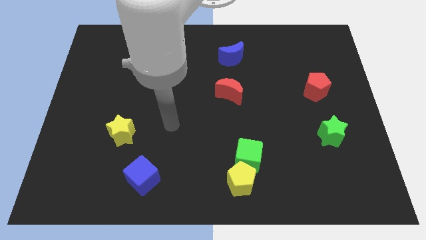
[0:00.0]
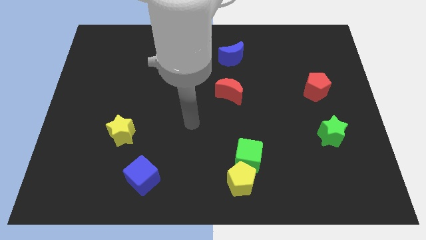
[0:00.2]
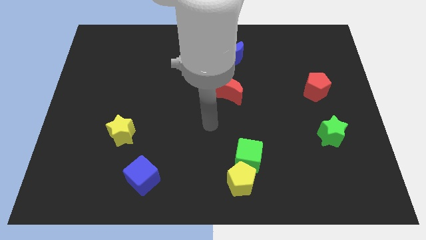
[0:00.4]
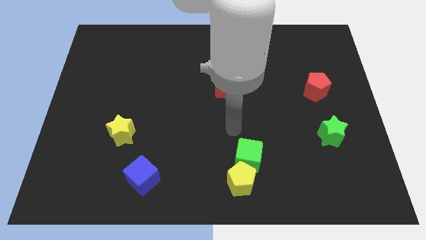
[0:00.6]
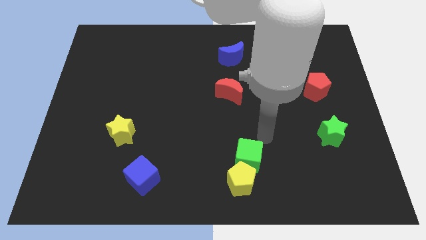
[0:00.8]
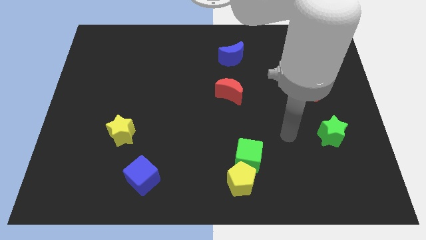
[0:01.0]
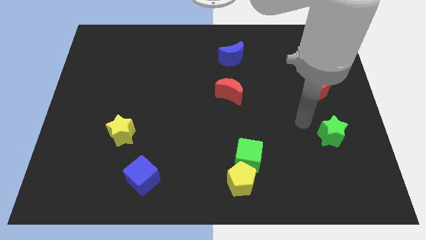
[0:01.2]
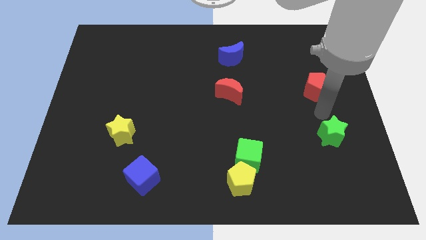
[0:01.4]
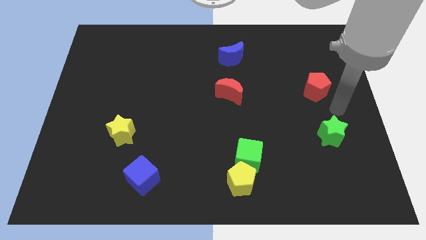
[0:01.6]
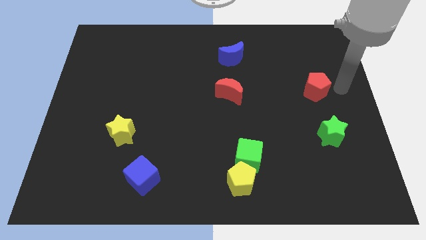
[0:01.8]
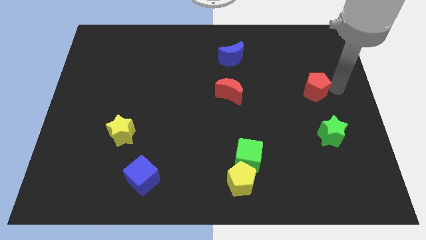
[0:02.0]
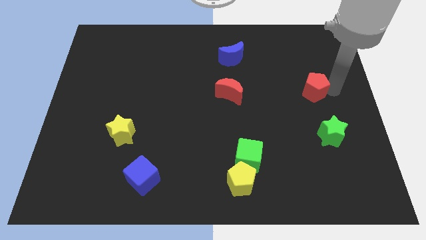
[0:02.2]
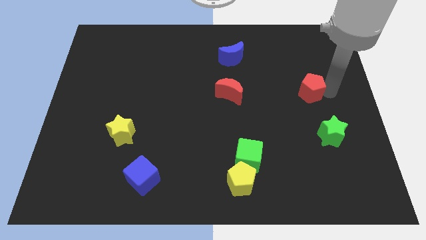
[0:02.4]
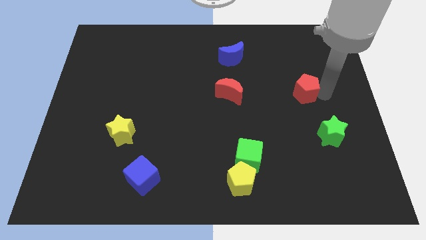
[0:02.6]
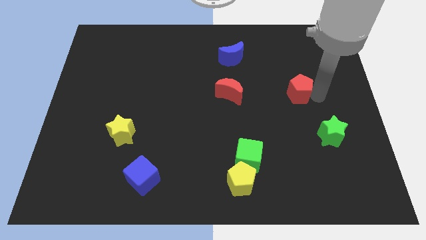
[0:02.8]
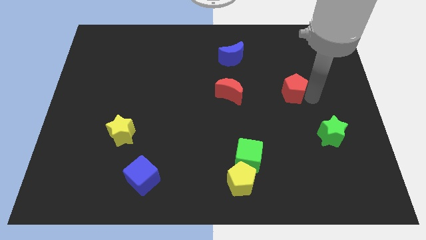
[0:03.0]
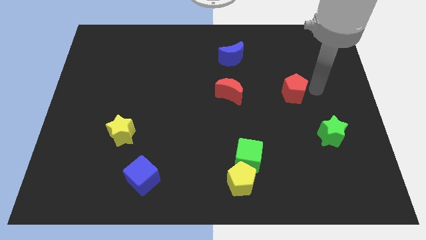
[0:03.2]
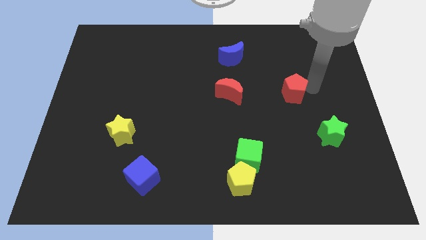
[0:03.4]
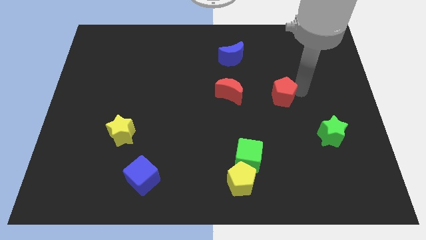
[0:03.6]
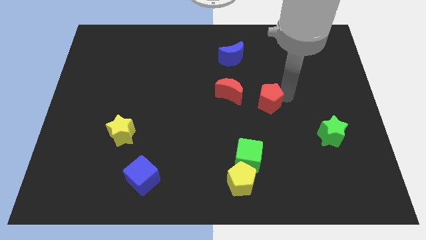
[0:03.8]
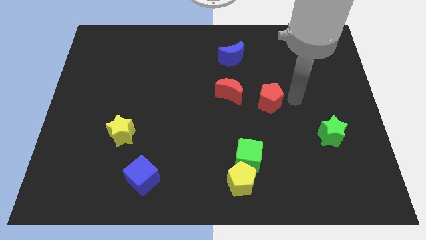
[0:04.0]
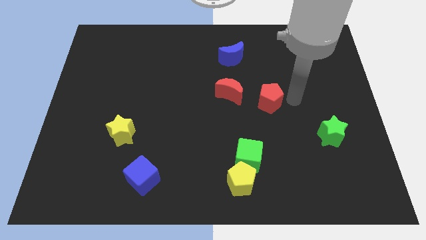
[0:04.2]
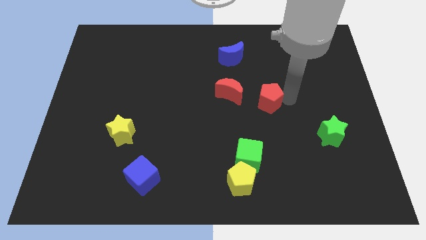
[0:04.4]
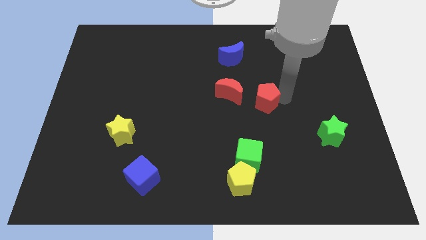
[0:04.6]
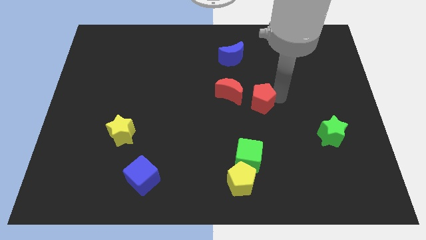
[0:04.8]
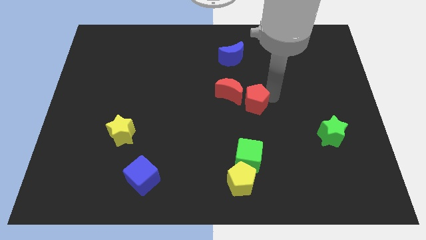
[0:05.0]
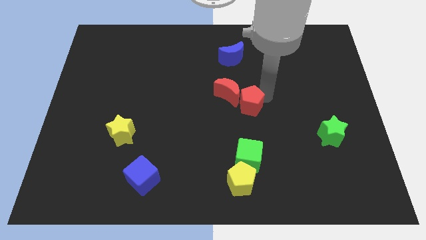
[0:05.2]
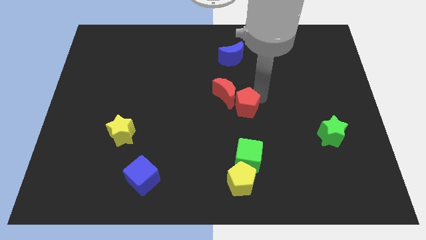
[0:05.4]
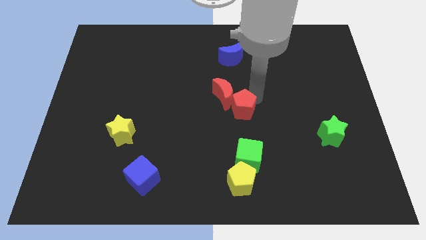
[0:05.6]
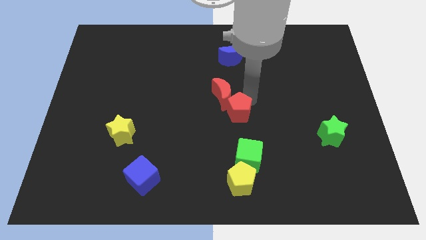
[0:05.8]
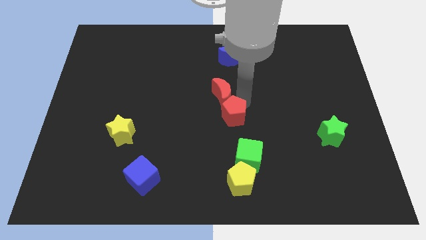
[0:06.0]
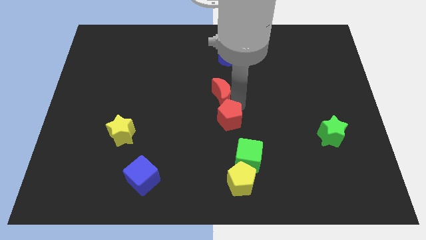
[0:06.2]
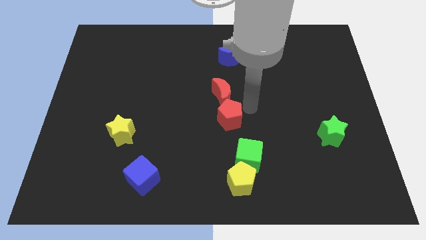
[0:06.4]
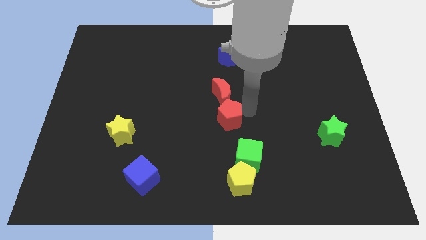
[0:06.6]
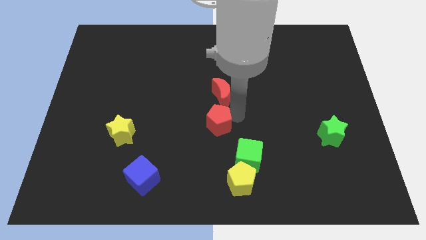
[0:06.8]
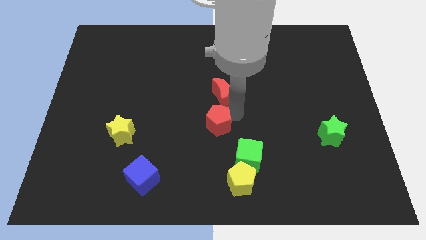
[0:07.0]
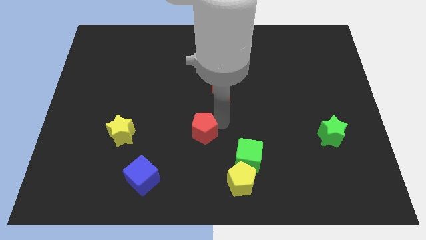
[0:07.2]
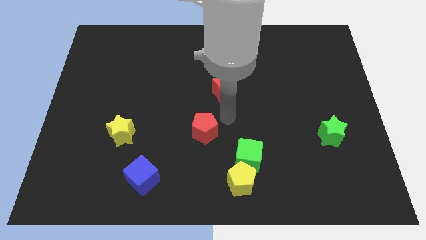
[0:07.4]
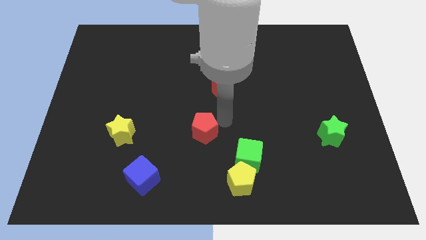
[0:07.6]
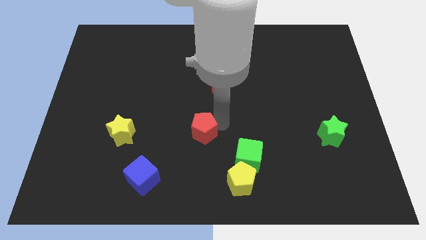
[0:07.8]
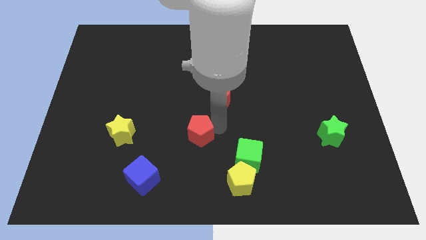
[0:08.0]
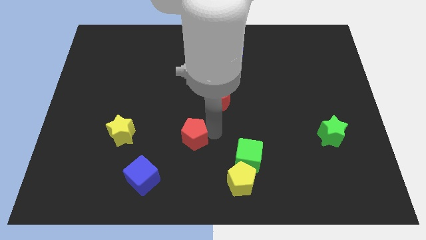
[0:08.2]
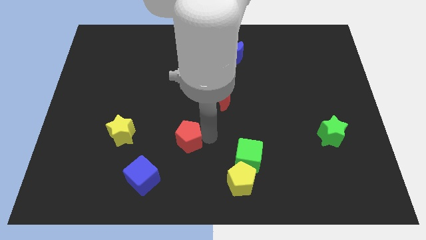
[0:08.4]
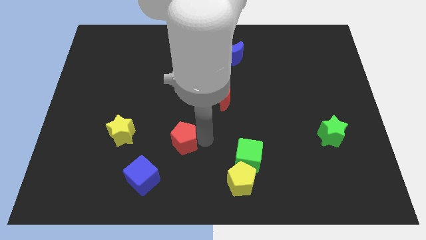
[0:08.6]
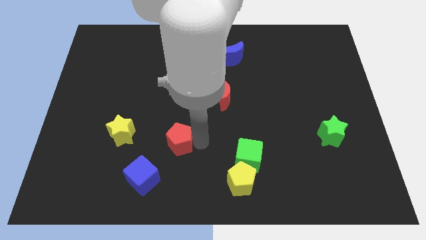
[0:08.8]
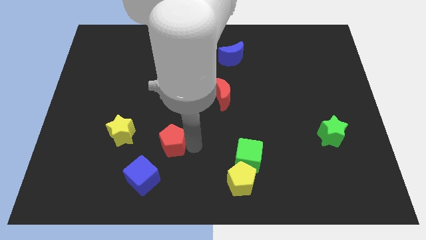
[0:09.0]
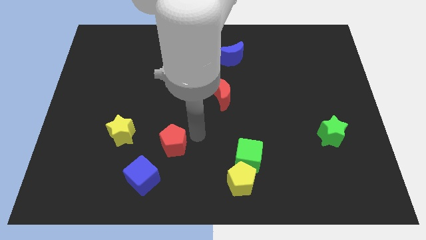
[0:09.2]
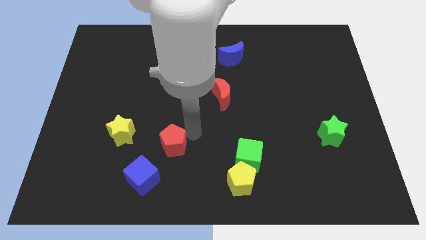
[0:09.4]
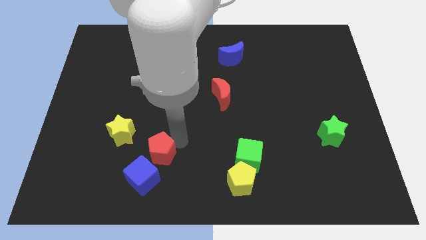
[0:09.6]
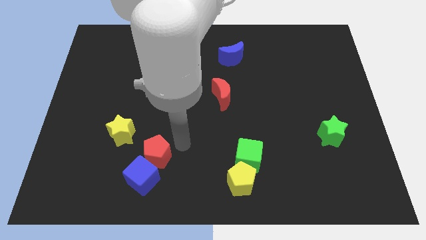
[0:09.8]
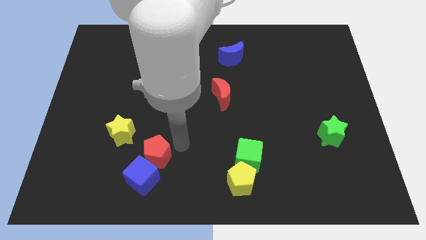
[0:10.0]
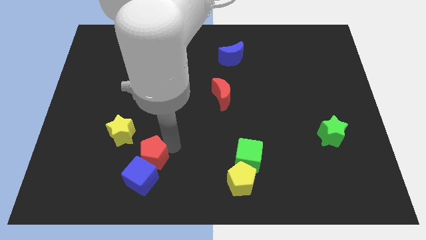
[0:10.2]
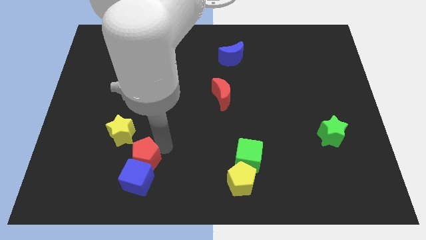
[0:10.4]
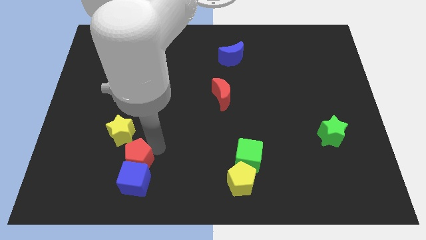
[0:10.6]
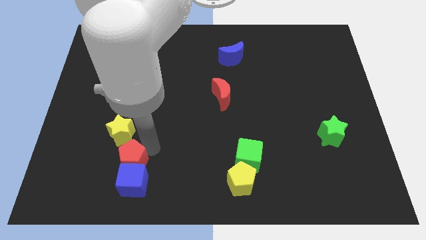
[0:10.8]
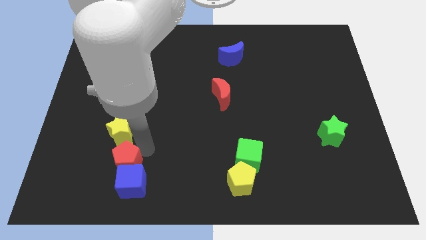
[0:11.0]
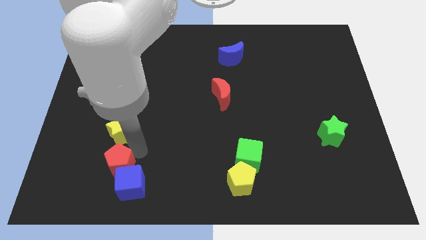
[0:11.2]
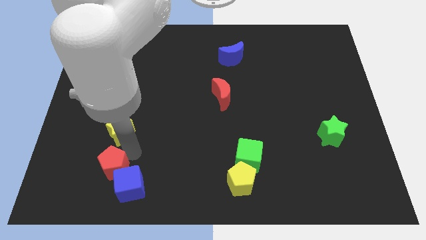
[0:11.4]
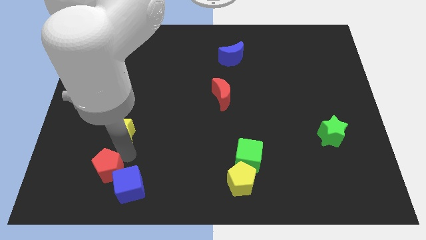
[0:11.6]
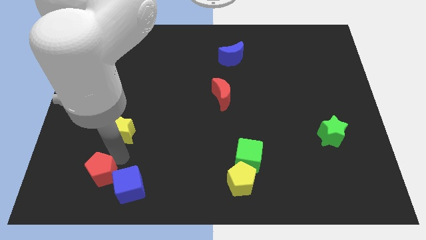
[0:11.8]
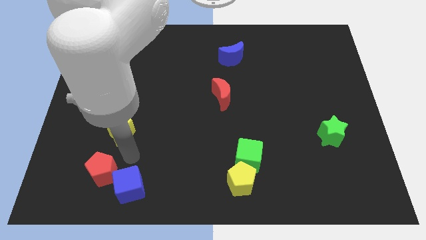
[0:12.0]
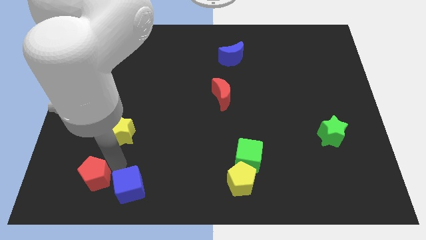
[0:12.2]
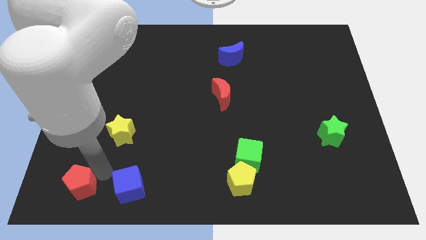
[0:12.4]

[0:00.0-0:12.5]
move the red pentagon to the bottom left of the board

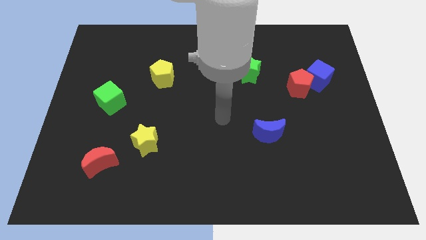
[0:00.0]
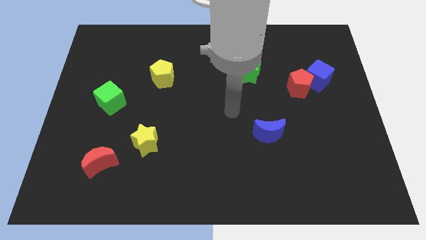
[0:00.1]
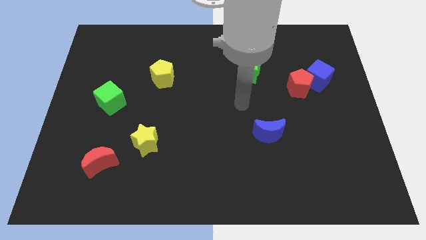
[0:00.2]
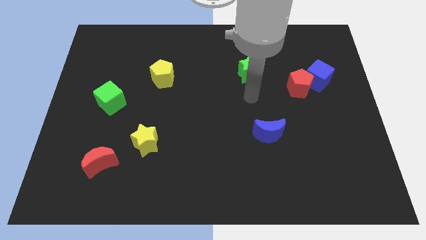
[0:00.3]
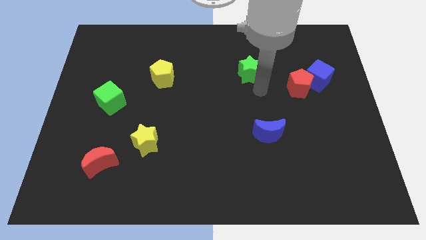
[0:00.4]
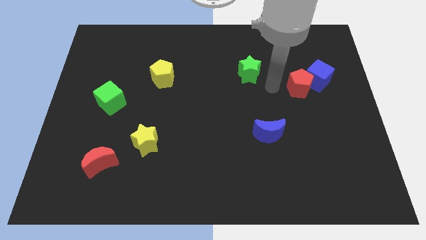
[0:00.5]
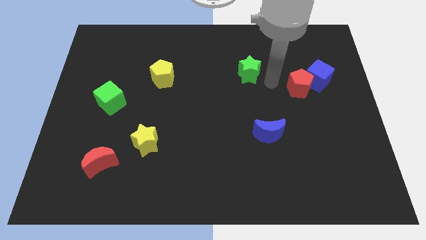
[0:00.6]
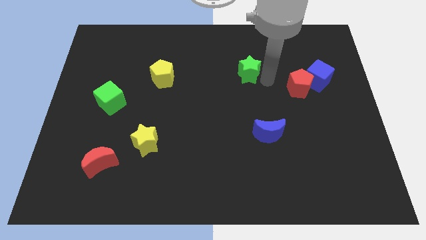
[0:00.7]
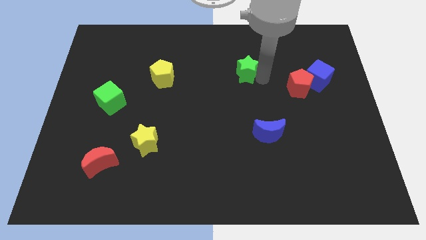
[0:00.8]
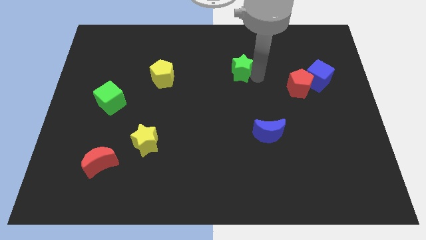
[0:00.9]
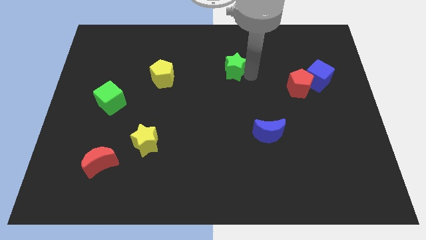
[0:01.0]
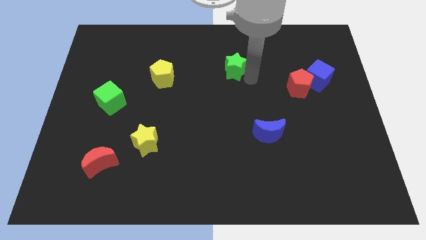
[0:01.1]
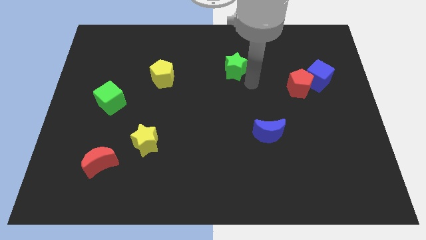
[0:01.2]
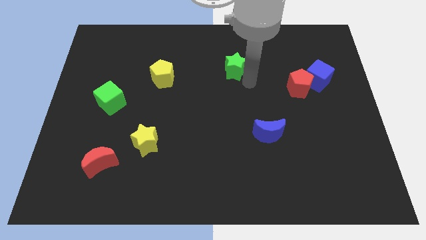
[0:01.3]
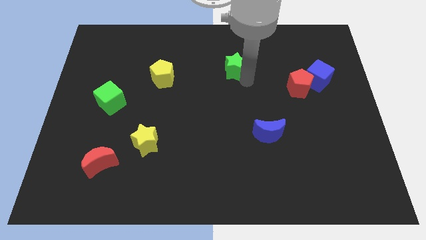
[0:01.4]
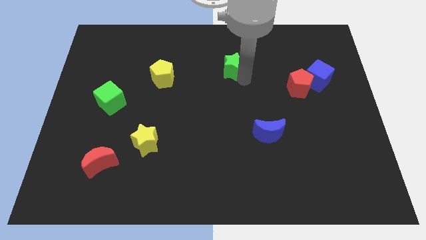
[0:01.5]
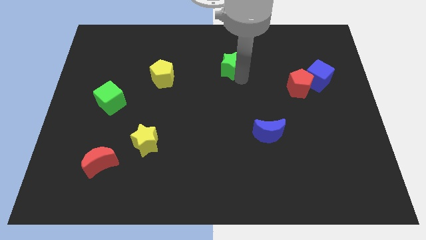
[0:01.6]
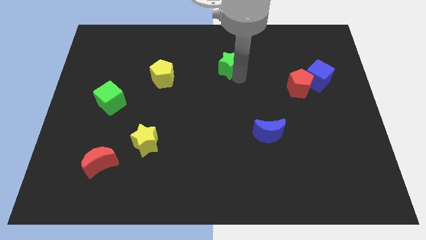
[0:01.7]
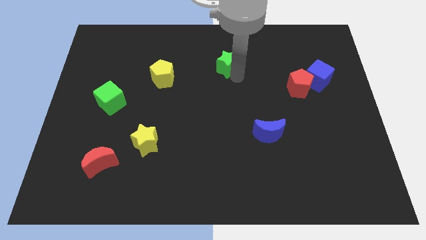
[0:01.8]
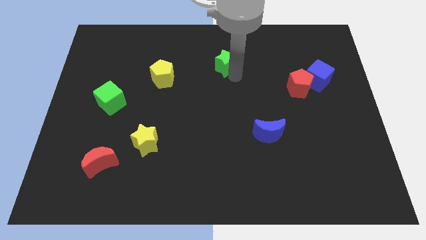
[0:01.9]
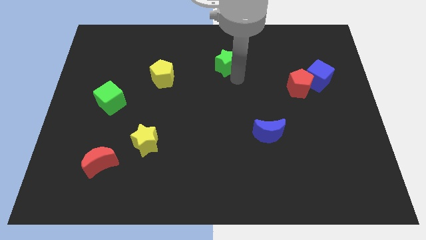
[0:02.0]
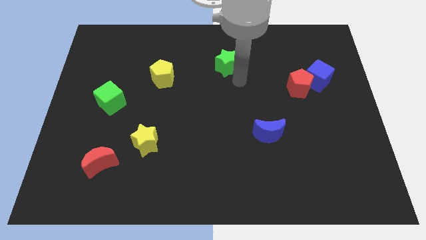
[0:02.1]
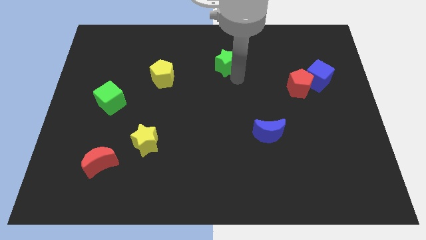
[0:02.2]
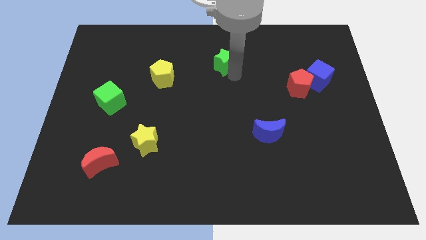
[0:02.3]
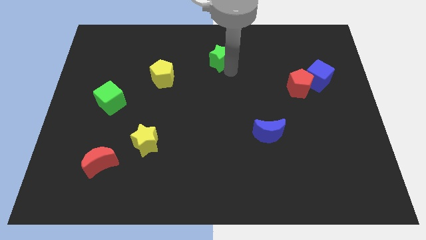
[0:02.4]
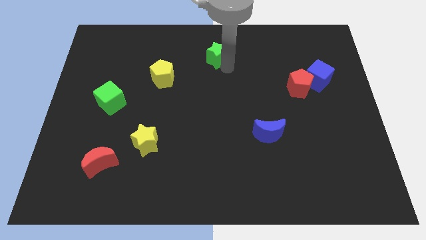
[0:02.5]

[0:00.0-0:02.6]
move the green star to the towards your base
